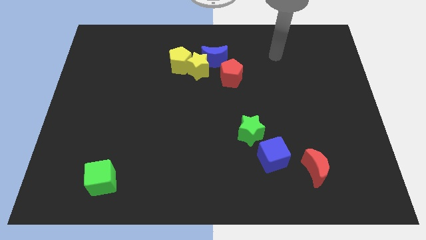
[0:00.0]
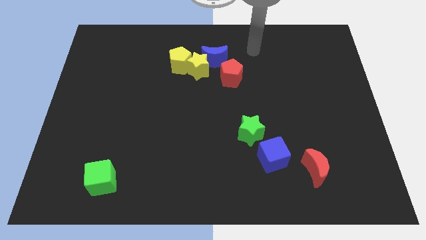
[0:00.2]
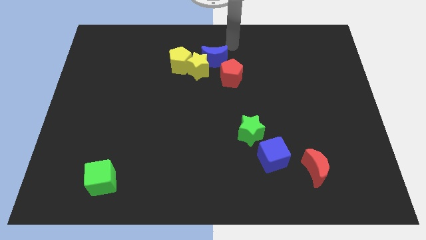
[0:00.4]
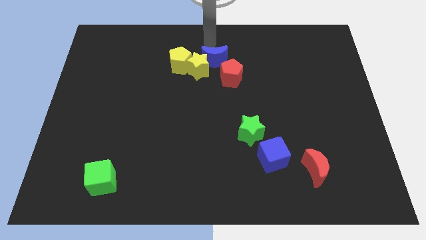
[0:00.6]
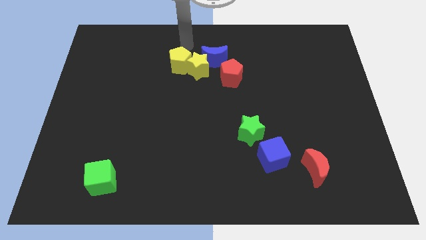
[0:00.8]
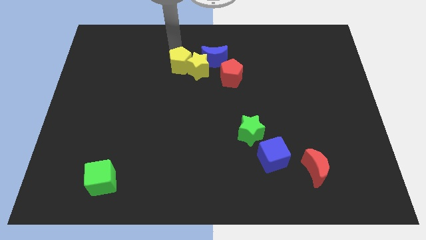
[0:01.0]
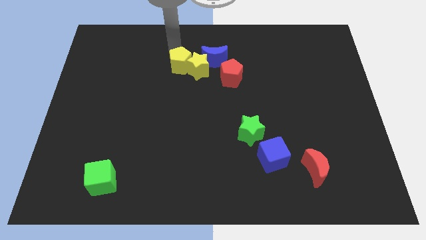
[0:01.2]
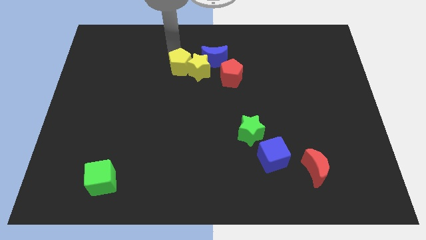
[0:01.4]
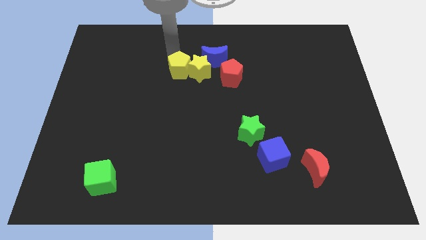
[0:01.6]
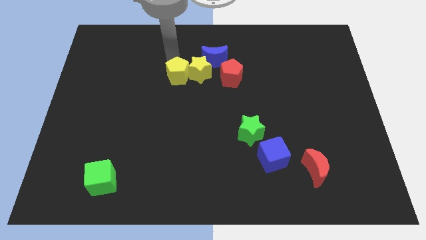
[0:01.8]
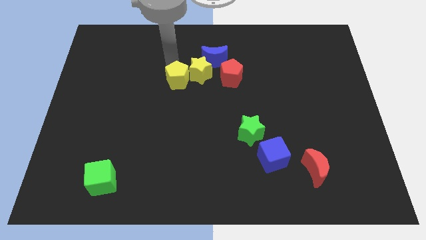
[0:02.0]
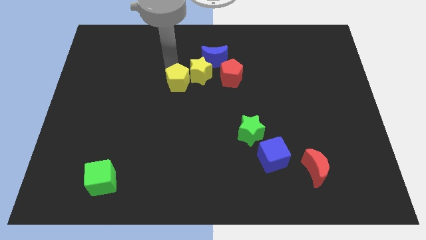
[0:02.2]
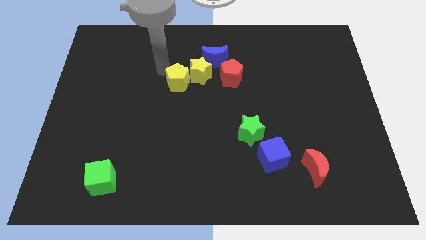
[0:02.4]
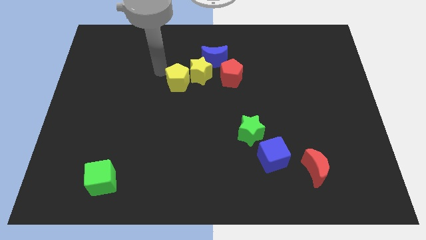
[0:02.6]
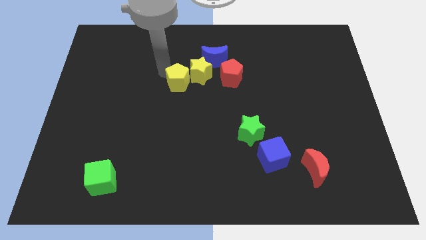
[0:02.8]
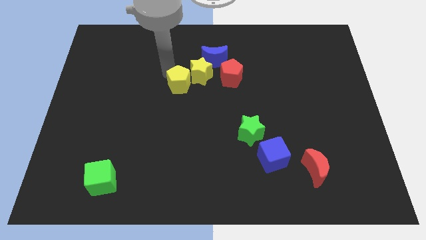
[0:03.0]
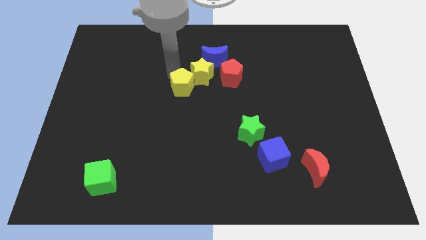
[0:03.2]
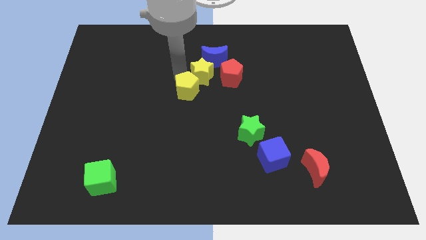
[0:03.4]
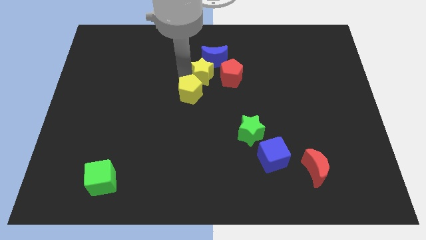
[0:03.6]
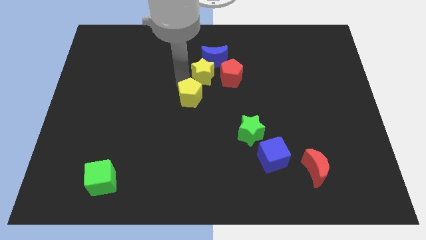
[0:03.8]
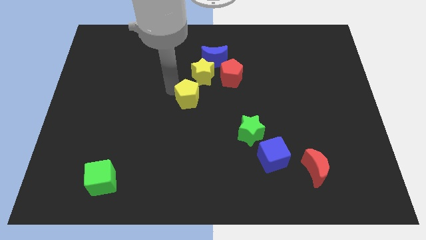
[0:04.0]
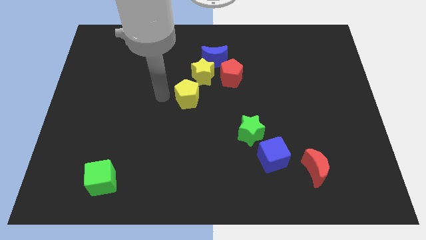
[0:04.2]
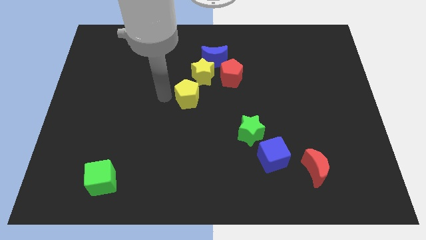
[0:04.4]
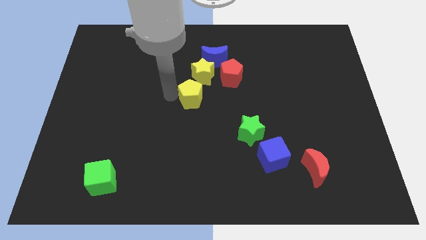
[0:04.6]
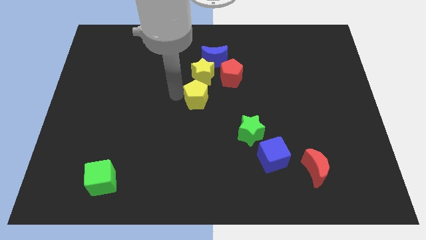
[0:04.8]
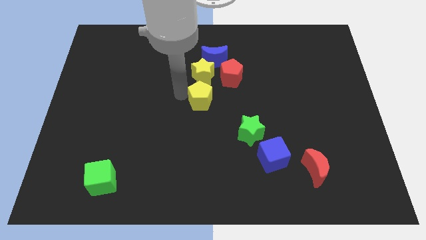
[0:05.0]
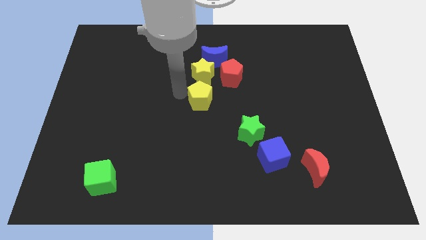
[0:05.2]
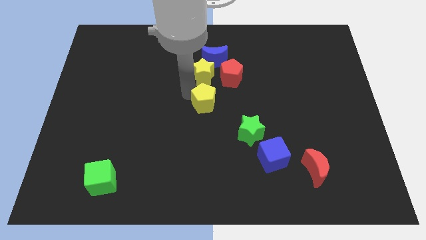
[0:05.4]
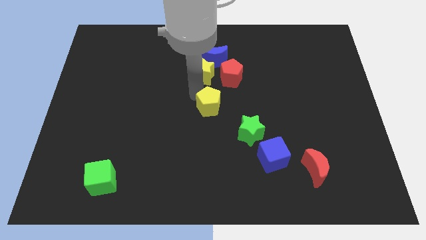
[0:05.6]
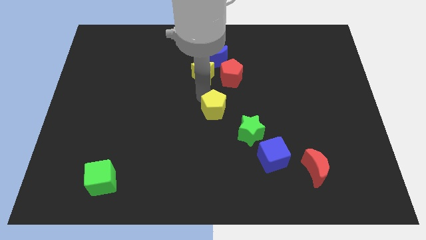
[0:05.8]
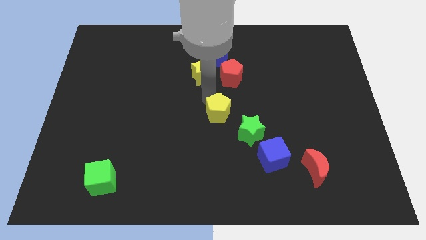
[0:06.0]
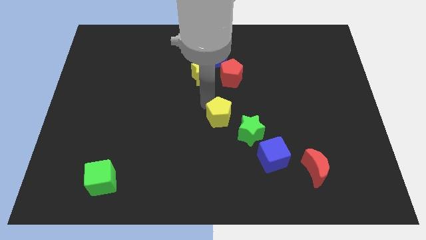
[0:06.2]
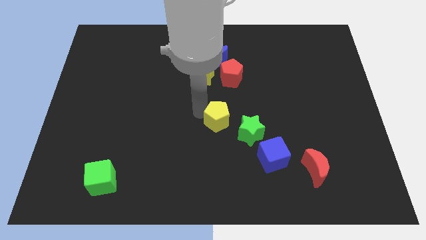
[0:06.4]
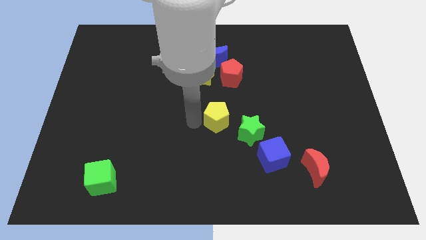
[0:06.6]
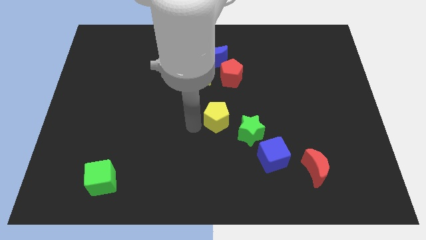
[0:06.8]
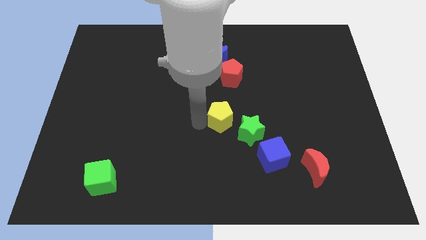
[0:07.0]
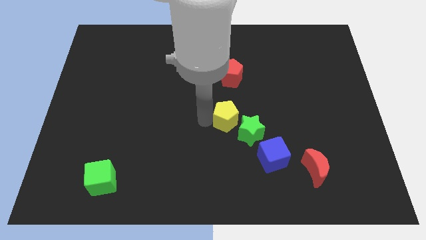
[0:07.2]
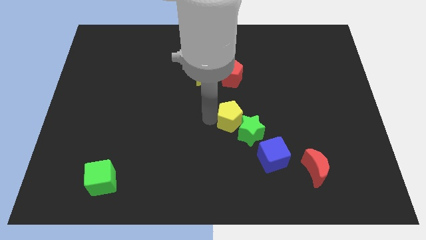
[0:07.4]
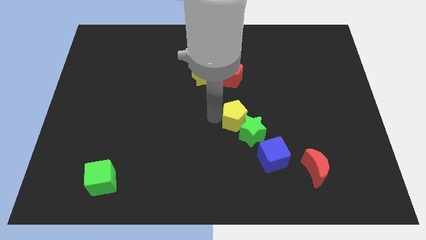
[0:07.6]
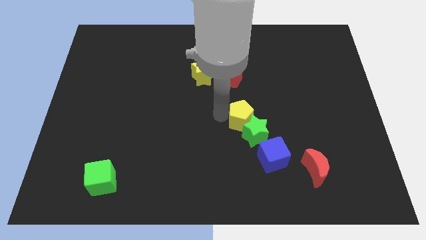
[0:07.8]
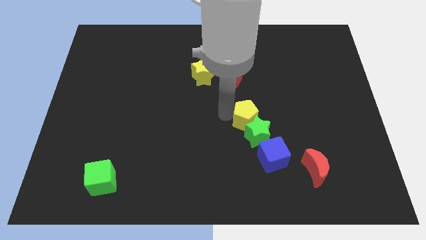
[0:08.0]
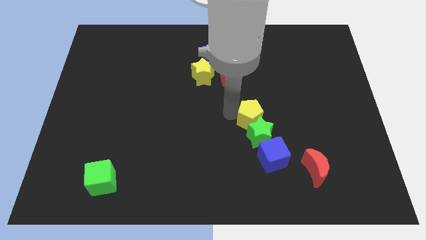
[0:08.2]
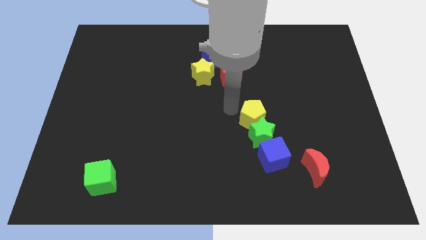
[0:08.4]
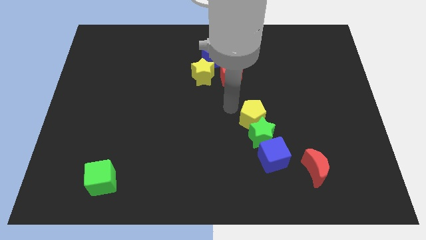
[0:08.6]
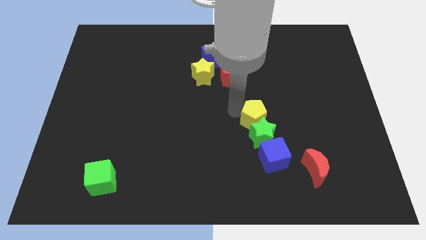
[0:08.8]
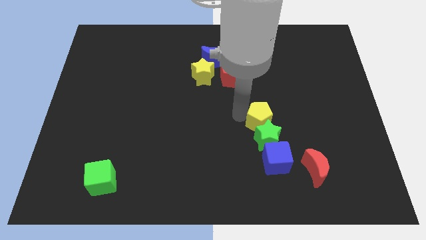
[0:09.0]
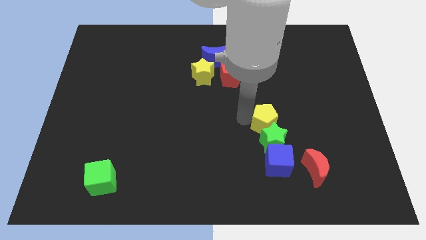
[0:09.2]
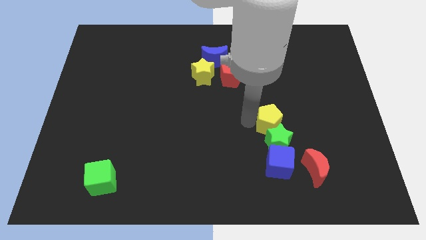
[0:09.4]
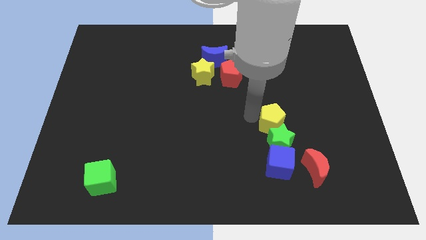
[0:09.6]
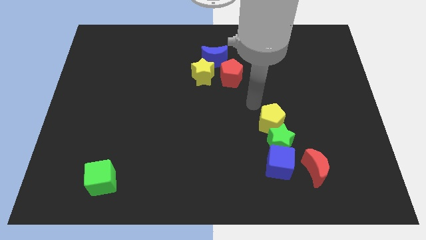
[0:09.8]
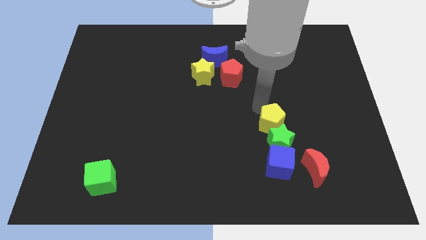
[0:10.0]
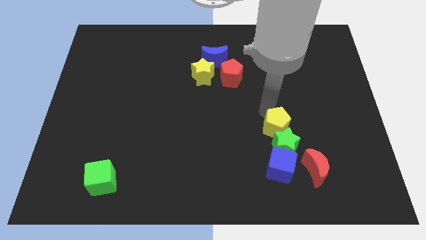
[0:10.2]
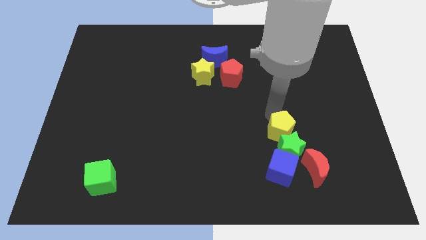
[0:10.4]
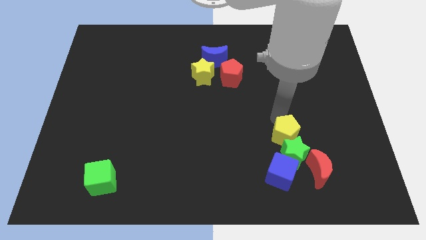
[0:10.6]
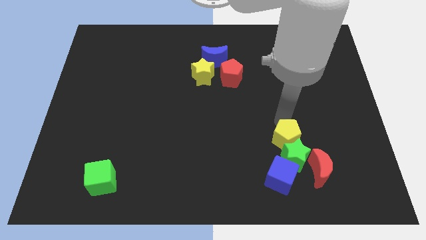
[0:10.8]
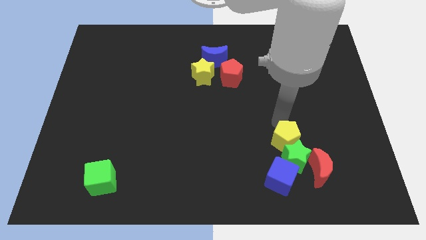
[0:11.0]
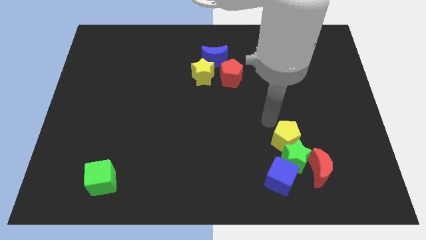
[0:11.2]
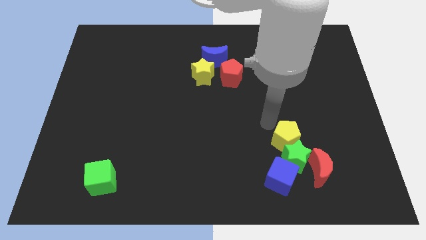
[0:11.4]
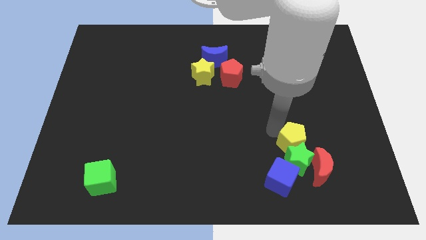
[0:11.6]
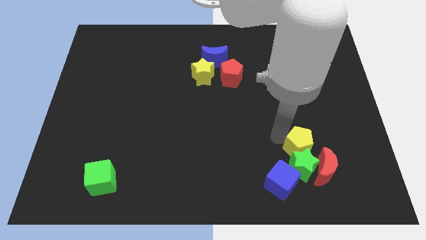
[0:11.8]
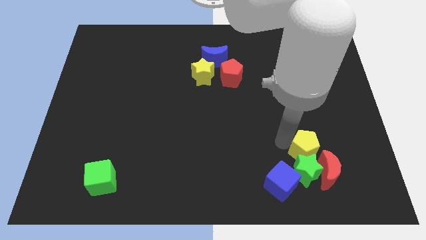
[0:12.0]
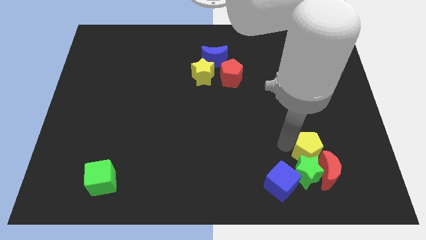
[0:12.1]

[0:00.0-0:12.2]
slide the yellow pentagon close to the red moon
